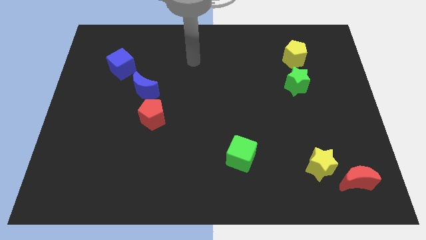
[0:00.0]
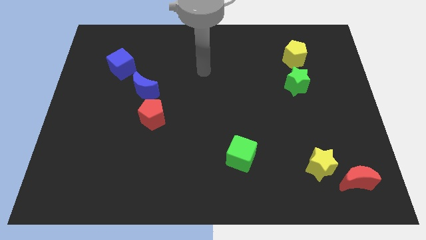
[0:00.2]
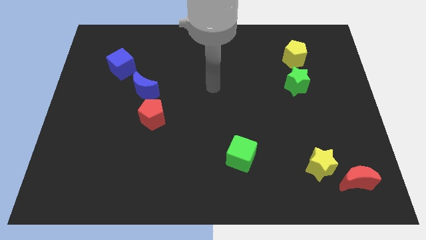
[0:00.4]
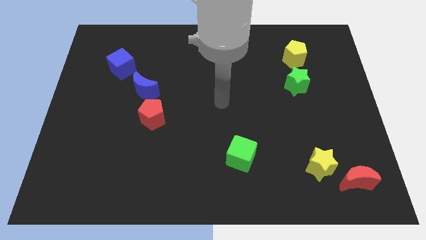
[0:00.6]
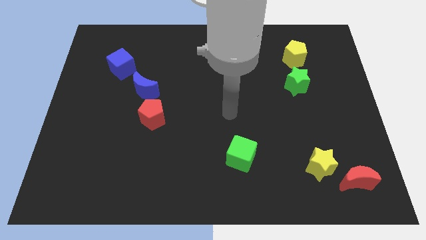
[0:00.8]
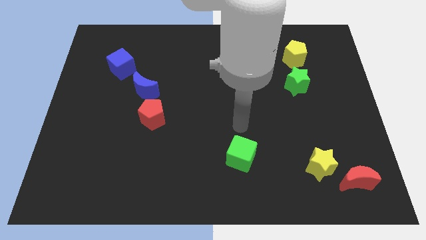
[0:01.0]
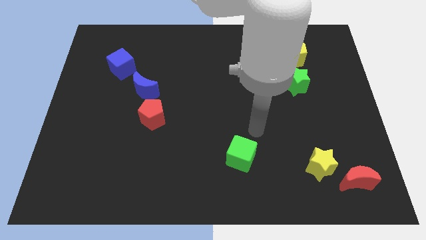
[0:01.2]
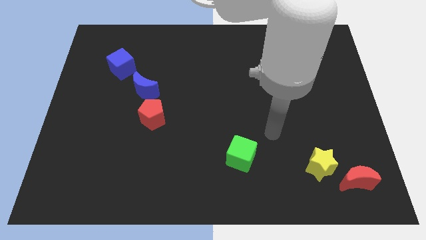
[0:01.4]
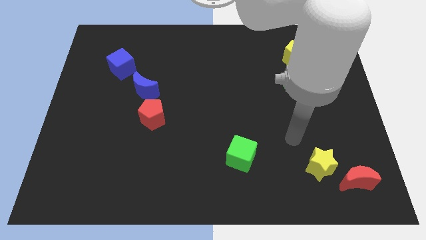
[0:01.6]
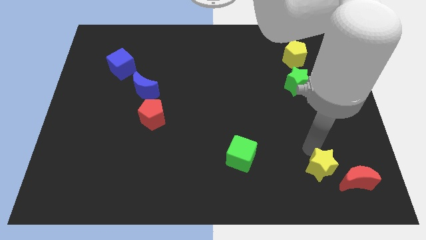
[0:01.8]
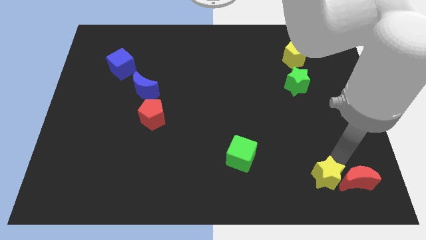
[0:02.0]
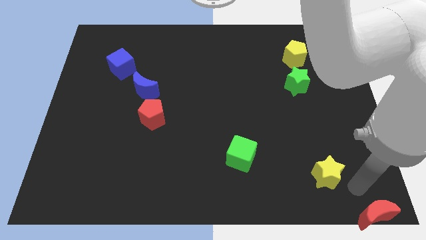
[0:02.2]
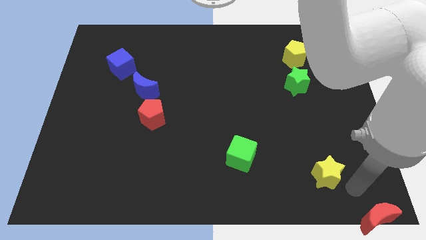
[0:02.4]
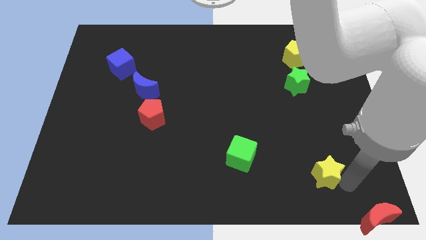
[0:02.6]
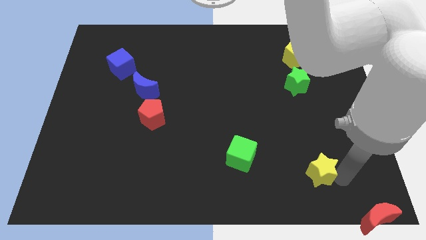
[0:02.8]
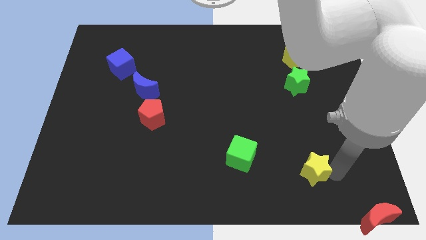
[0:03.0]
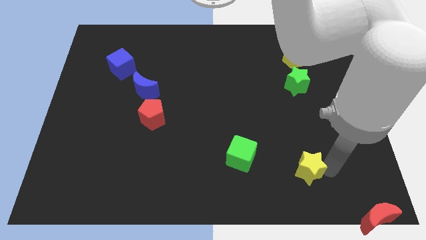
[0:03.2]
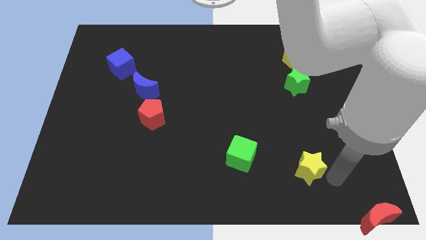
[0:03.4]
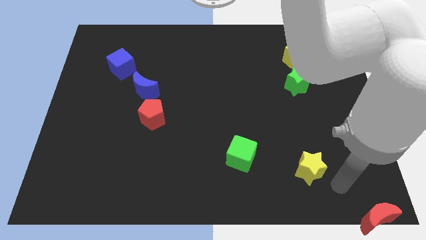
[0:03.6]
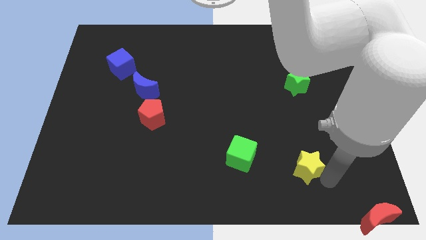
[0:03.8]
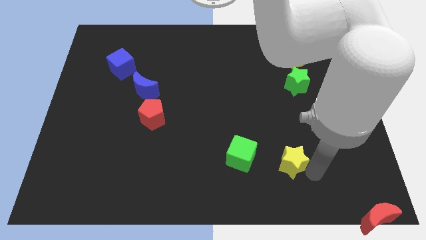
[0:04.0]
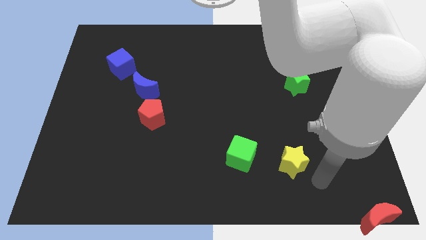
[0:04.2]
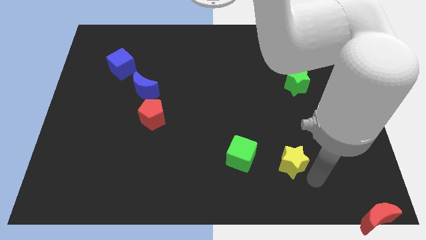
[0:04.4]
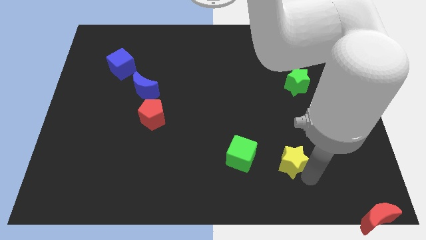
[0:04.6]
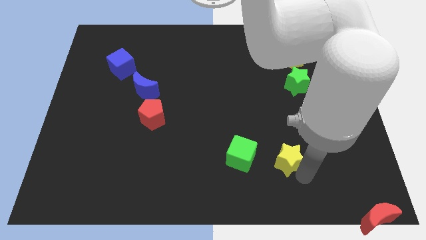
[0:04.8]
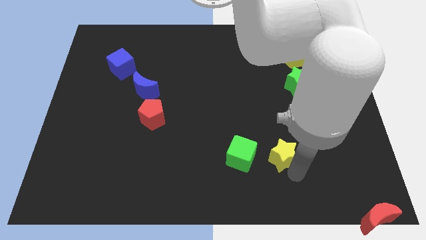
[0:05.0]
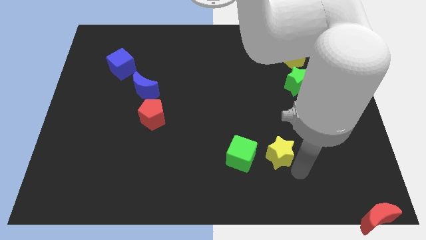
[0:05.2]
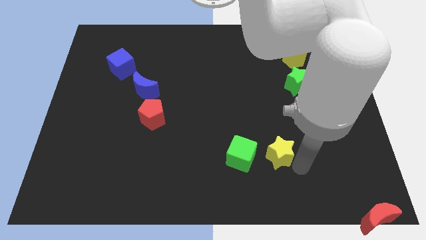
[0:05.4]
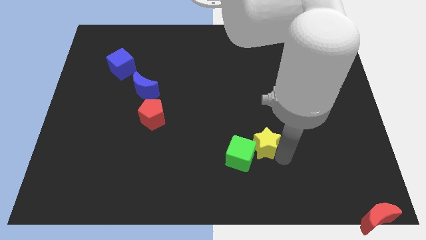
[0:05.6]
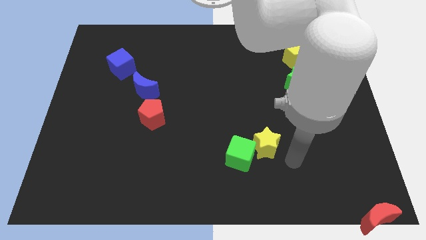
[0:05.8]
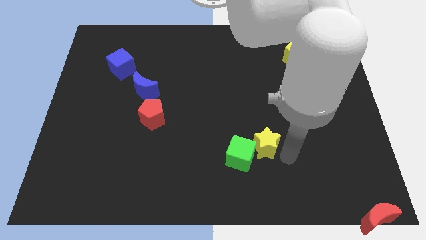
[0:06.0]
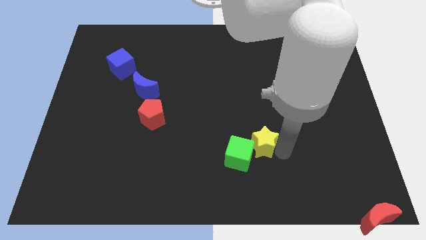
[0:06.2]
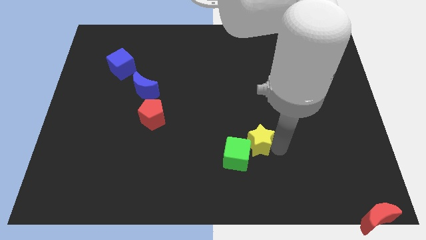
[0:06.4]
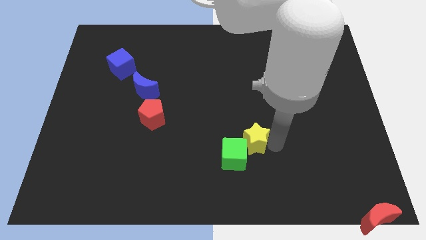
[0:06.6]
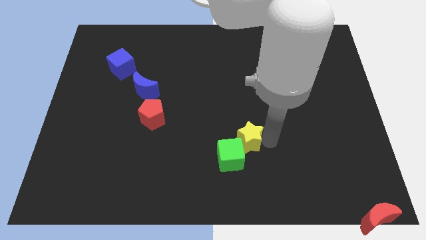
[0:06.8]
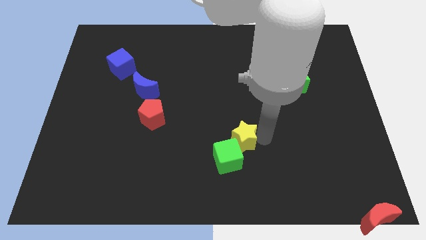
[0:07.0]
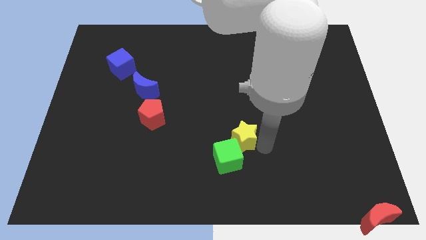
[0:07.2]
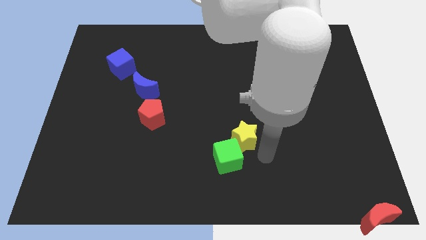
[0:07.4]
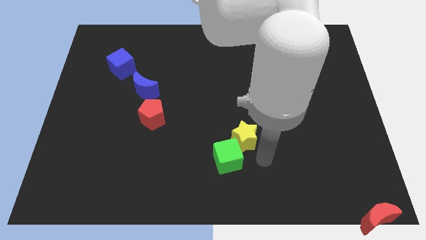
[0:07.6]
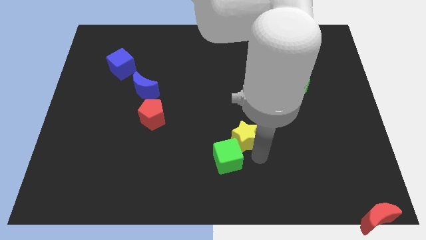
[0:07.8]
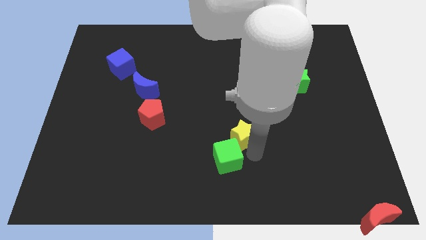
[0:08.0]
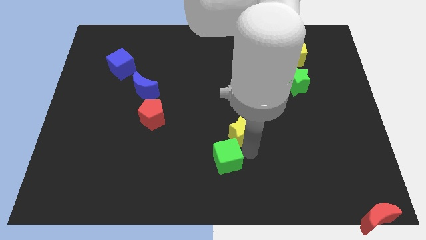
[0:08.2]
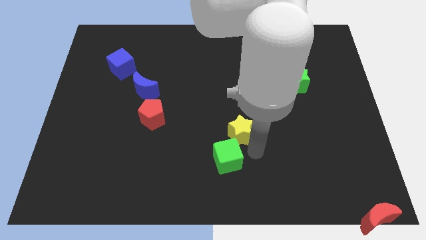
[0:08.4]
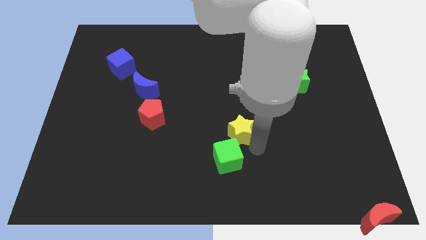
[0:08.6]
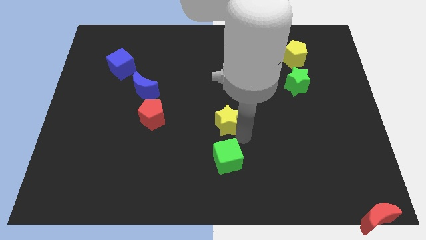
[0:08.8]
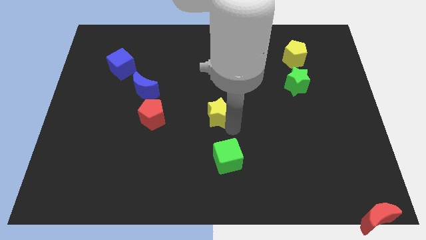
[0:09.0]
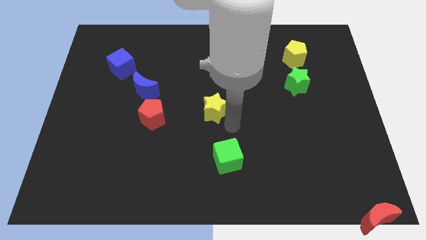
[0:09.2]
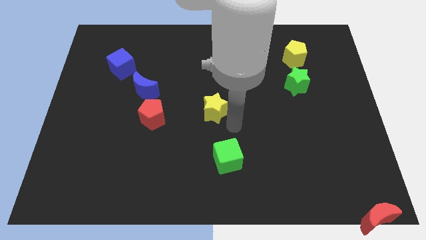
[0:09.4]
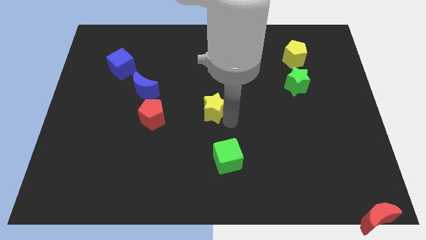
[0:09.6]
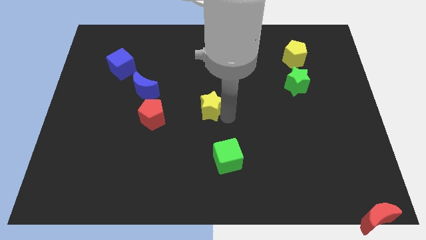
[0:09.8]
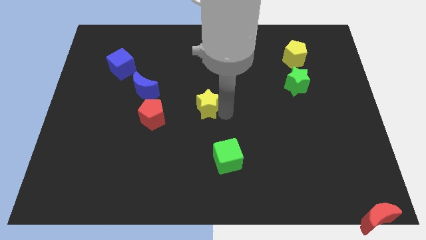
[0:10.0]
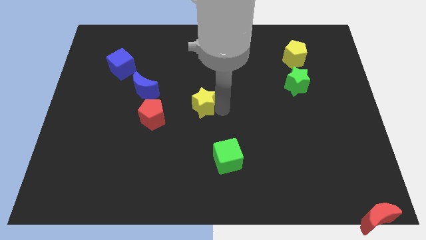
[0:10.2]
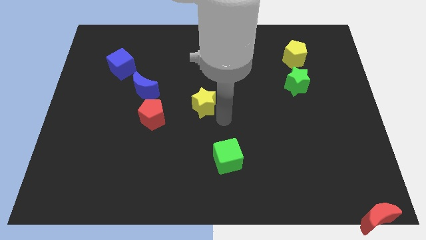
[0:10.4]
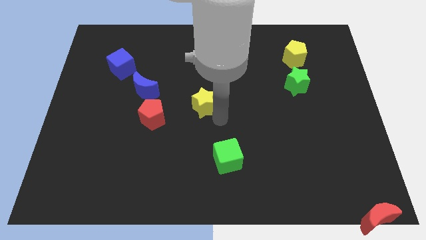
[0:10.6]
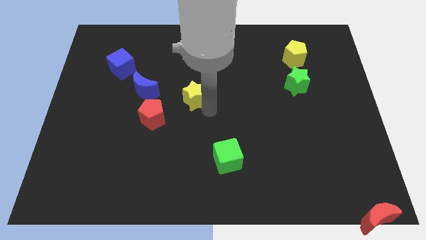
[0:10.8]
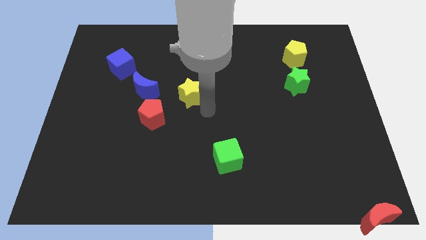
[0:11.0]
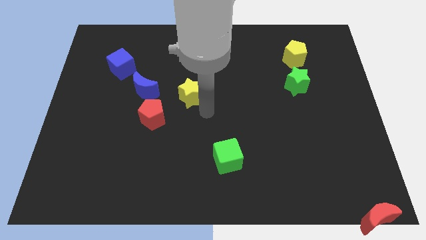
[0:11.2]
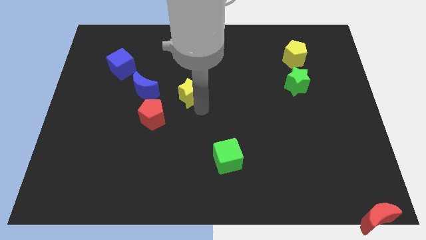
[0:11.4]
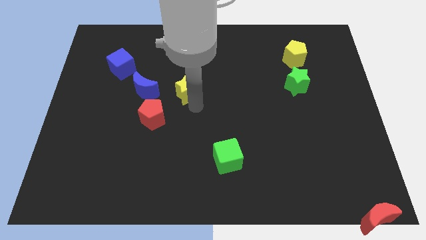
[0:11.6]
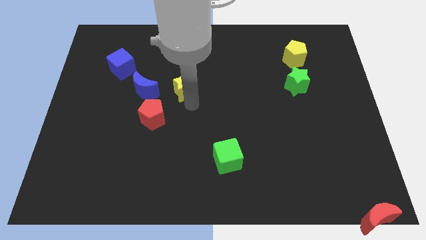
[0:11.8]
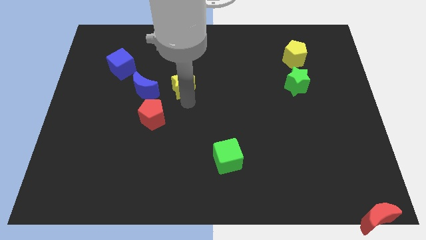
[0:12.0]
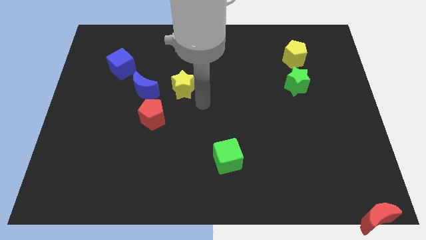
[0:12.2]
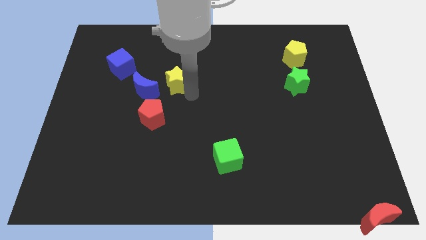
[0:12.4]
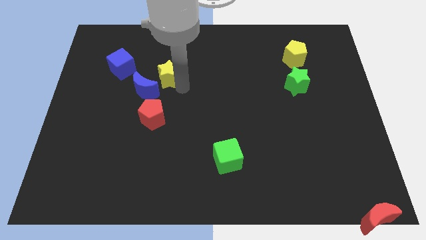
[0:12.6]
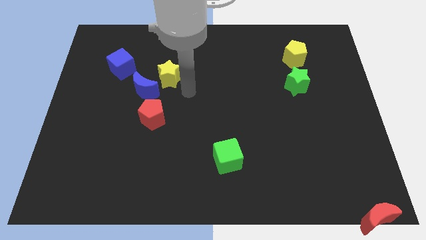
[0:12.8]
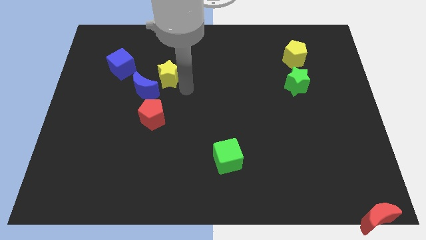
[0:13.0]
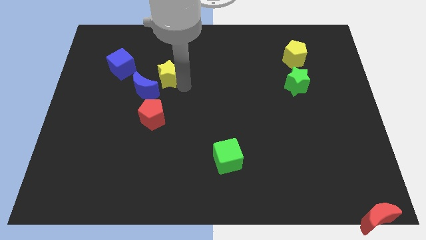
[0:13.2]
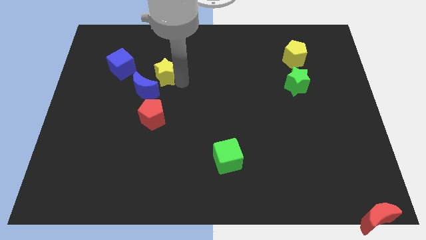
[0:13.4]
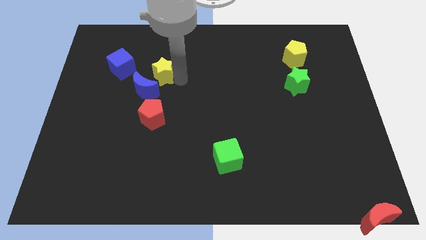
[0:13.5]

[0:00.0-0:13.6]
push the yellow star to the top side of the blue moon
